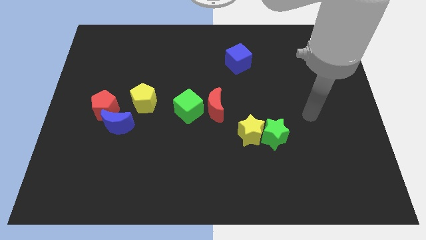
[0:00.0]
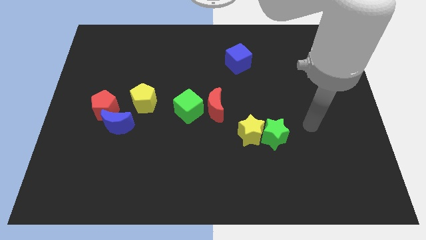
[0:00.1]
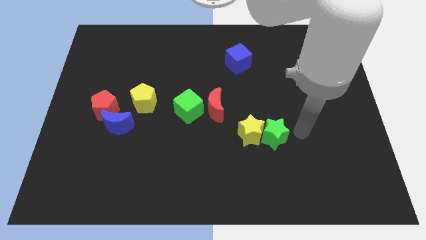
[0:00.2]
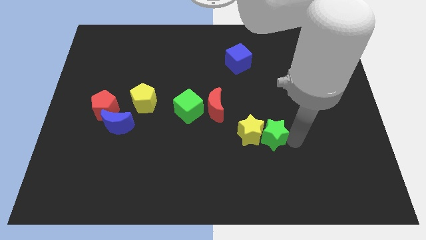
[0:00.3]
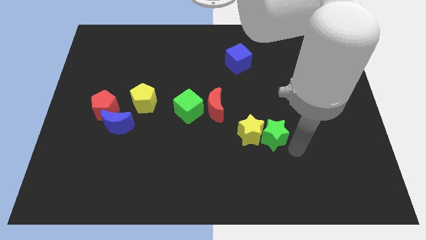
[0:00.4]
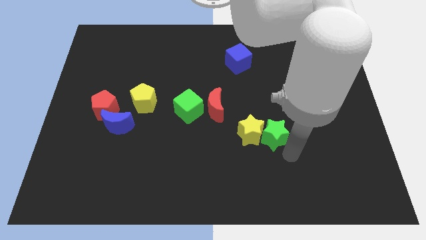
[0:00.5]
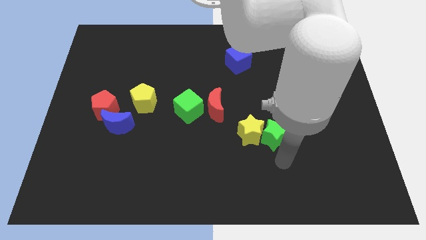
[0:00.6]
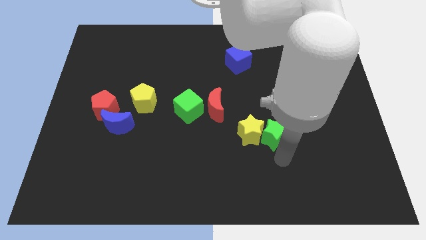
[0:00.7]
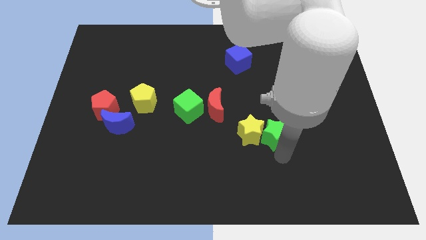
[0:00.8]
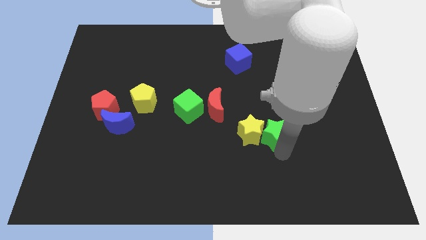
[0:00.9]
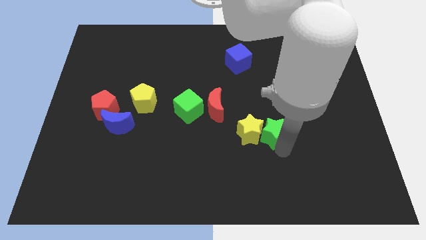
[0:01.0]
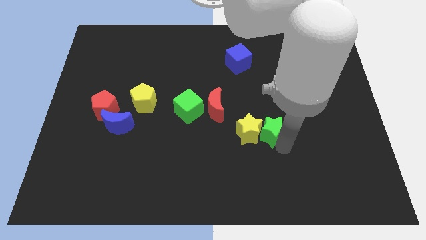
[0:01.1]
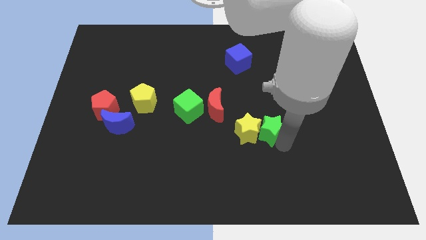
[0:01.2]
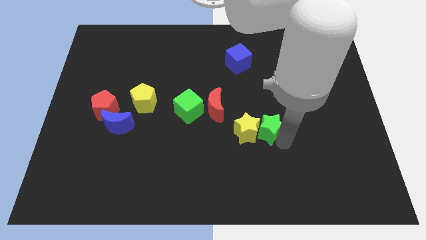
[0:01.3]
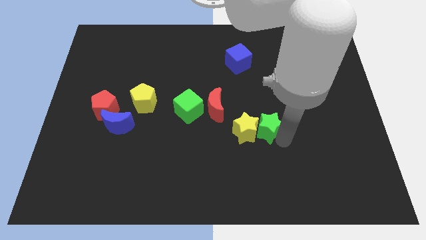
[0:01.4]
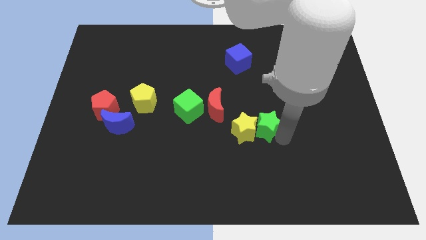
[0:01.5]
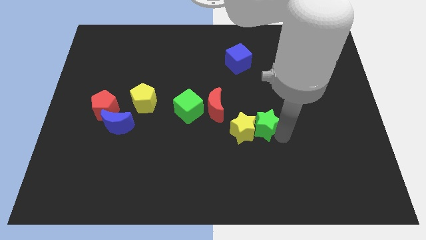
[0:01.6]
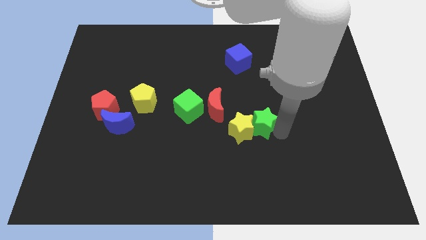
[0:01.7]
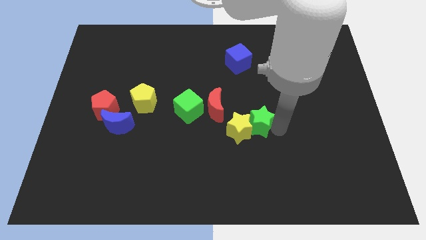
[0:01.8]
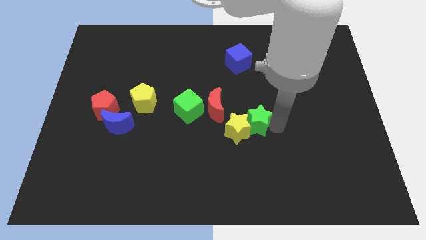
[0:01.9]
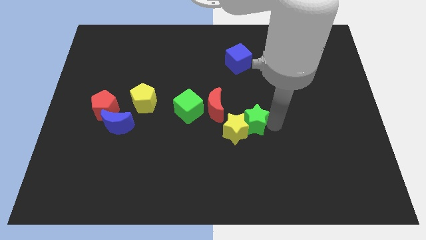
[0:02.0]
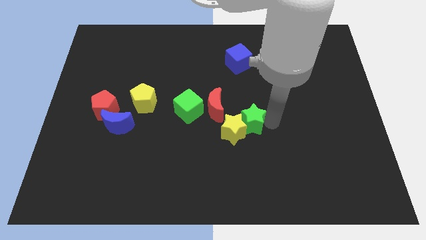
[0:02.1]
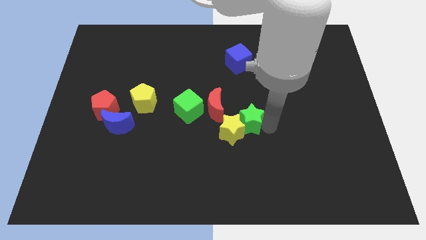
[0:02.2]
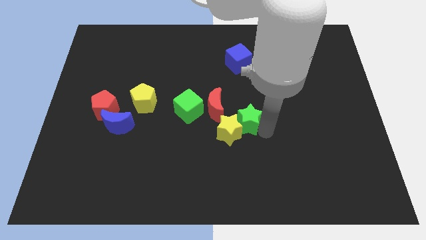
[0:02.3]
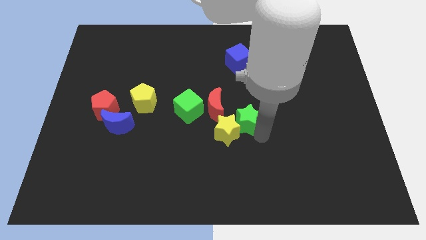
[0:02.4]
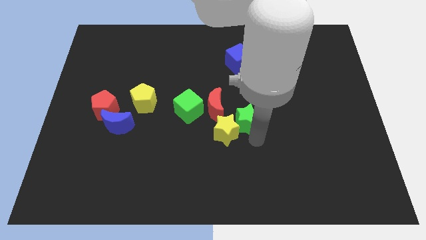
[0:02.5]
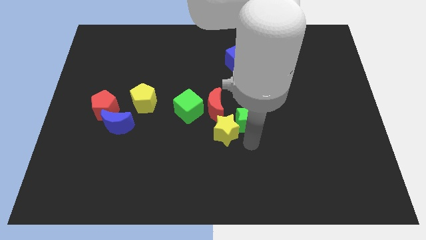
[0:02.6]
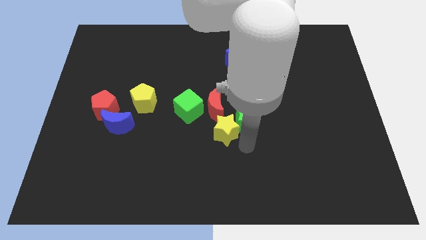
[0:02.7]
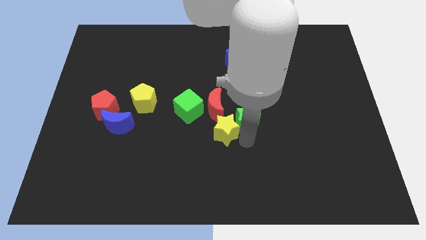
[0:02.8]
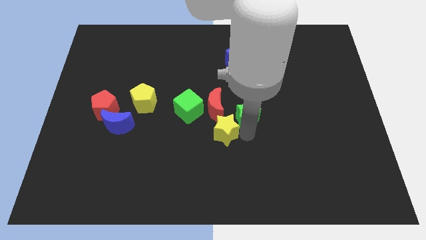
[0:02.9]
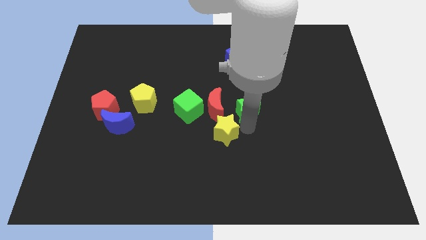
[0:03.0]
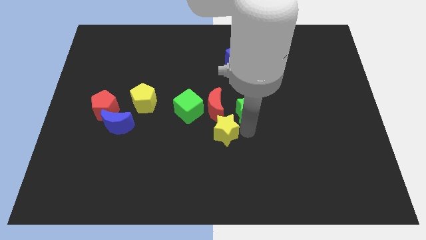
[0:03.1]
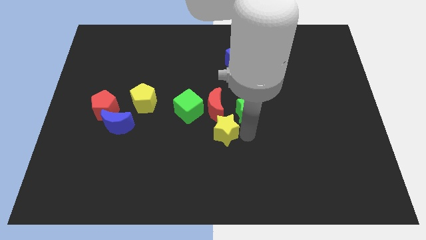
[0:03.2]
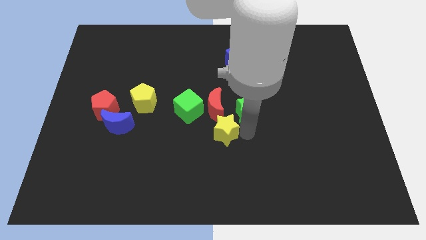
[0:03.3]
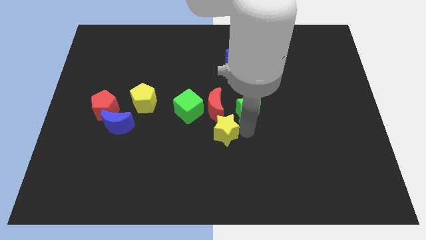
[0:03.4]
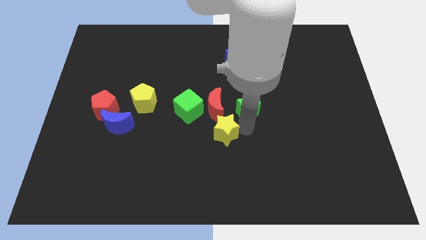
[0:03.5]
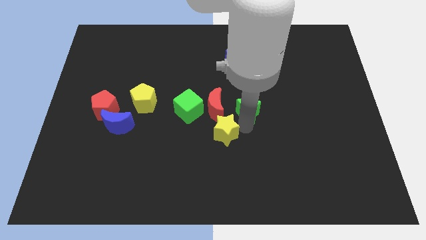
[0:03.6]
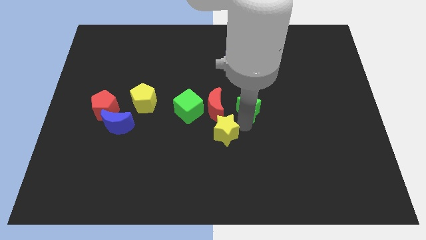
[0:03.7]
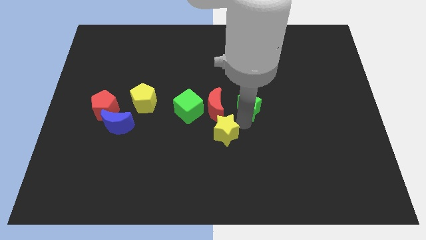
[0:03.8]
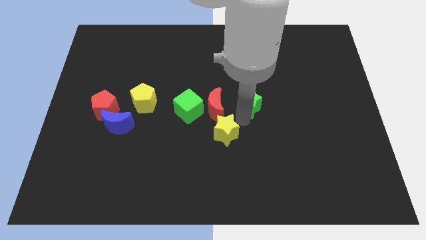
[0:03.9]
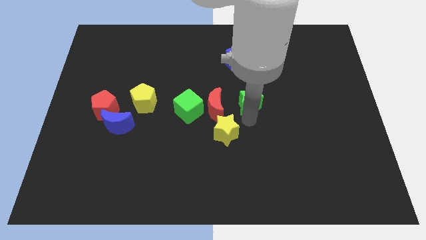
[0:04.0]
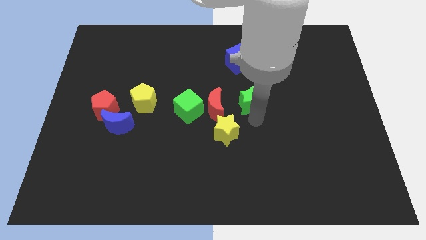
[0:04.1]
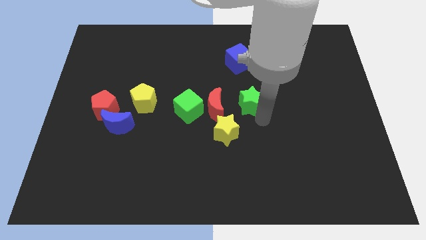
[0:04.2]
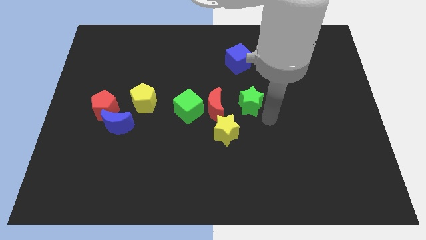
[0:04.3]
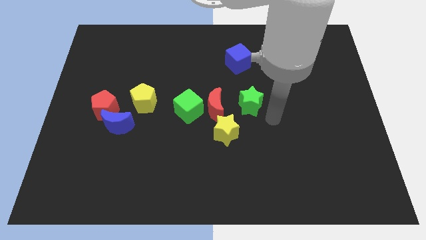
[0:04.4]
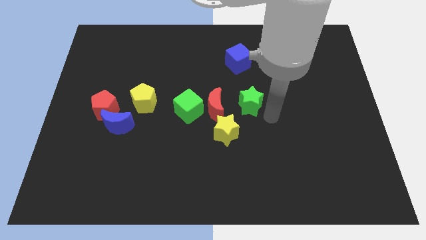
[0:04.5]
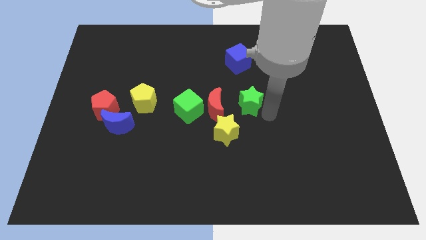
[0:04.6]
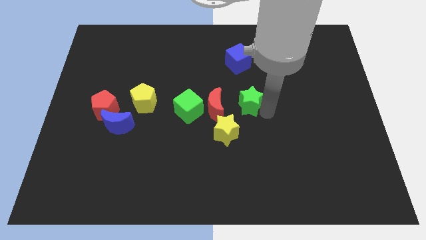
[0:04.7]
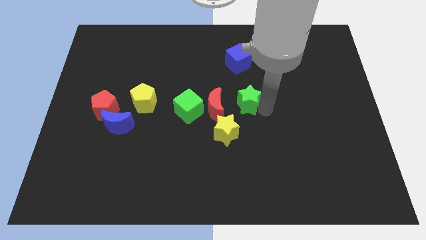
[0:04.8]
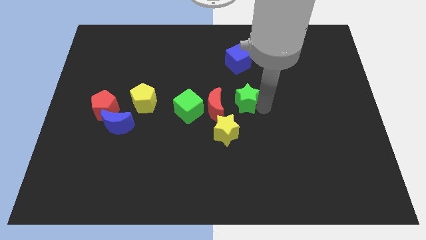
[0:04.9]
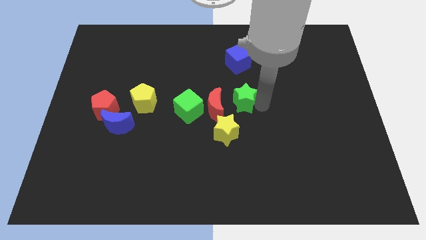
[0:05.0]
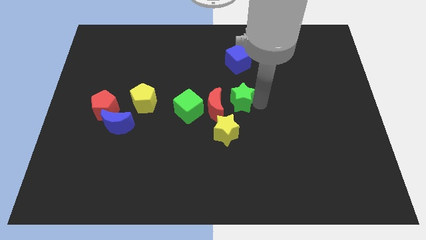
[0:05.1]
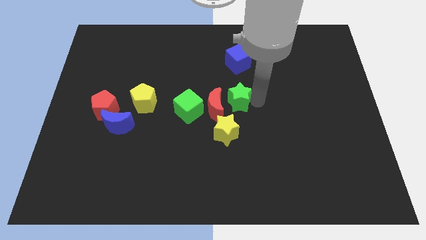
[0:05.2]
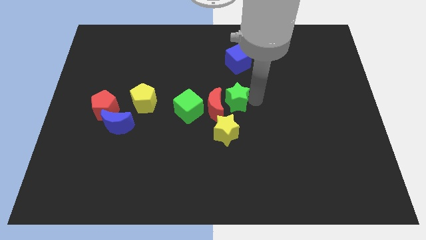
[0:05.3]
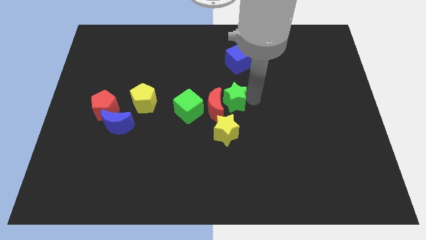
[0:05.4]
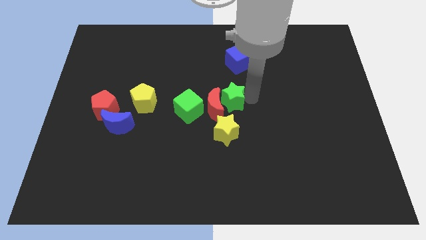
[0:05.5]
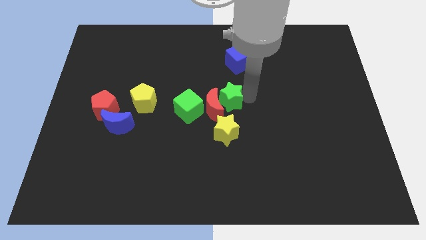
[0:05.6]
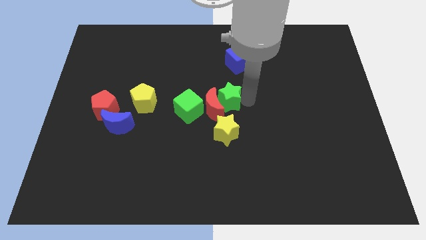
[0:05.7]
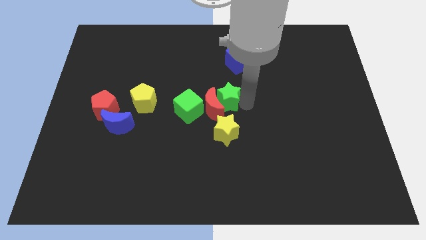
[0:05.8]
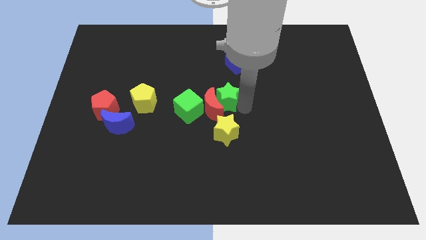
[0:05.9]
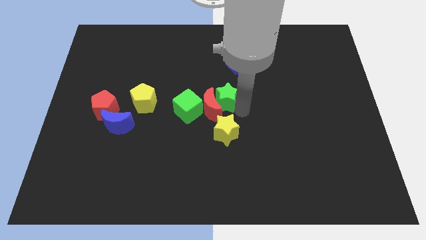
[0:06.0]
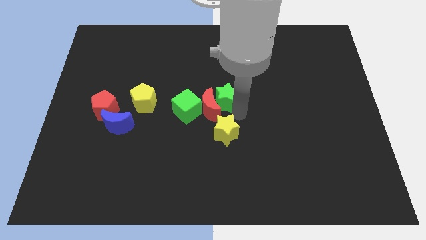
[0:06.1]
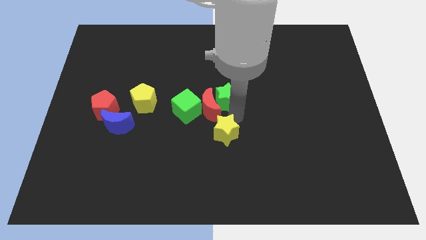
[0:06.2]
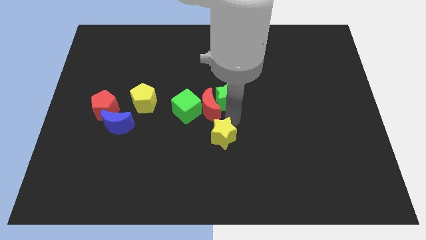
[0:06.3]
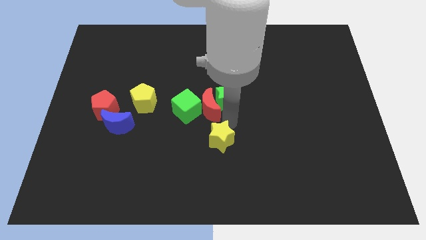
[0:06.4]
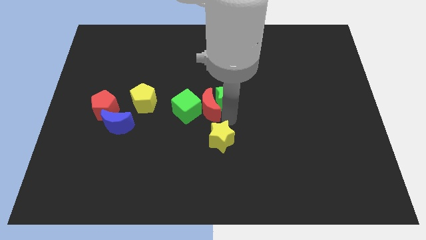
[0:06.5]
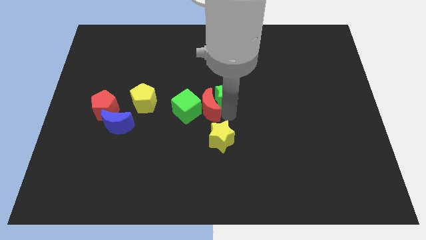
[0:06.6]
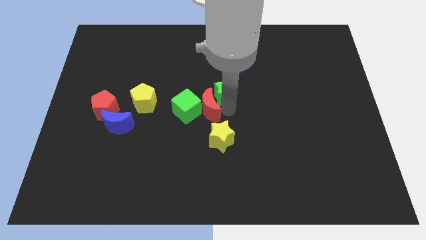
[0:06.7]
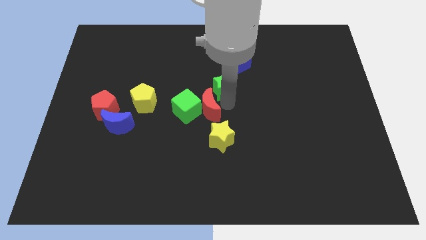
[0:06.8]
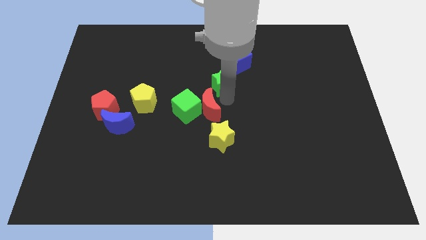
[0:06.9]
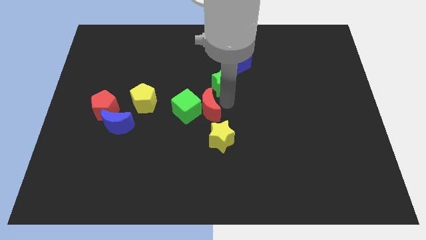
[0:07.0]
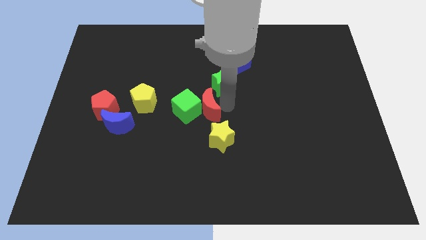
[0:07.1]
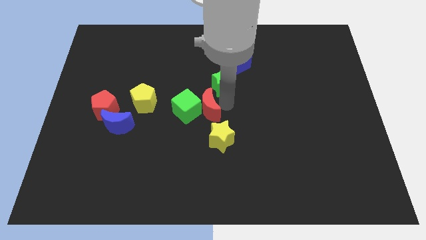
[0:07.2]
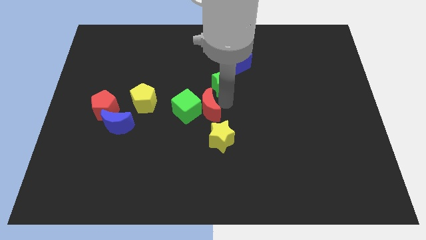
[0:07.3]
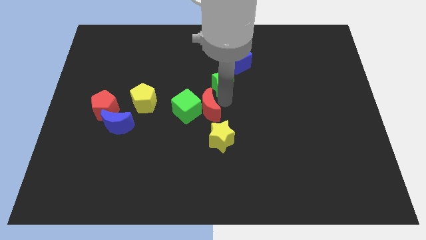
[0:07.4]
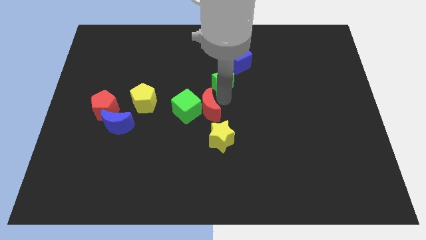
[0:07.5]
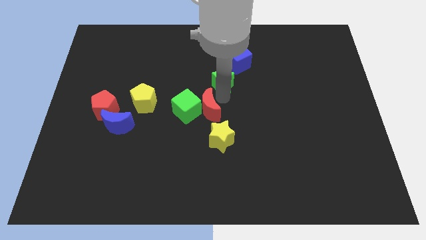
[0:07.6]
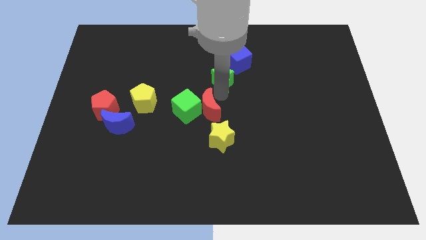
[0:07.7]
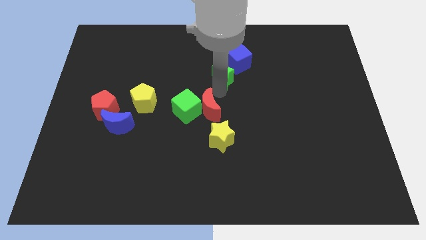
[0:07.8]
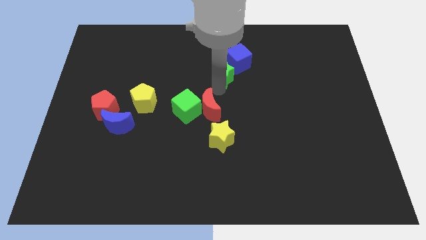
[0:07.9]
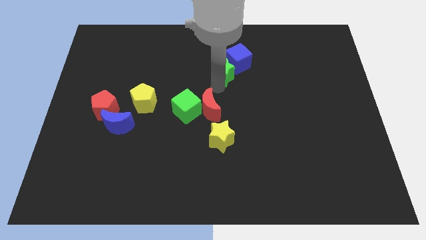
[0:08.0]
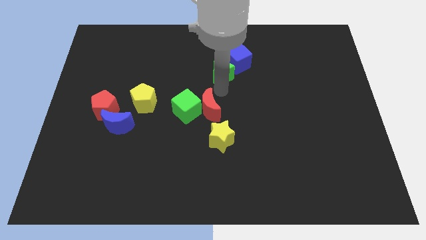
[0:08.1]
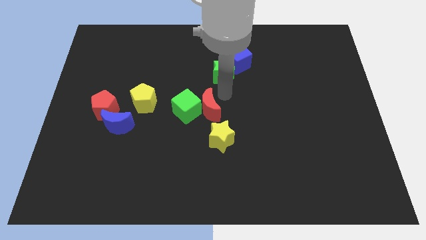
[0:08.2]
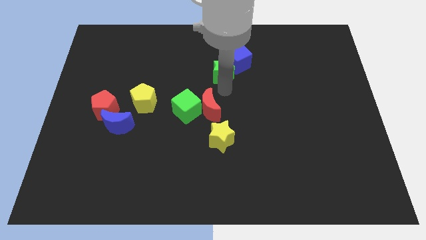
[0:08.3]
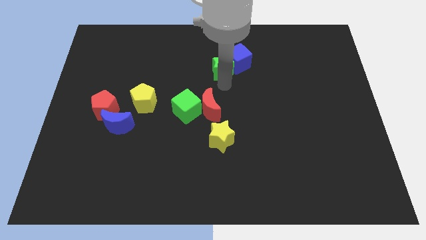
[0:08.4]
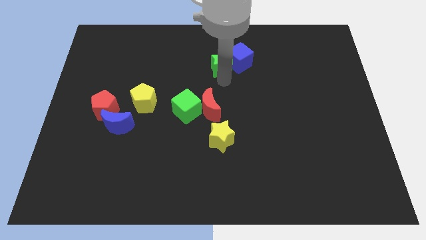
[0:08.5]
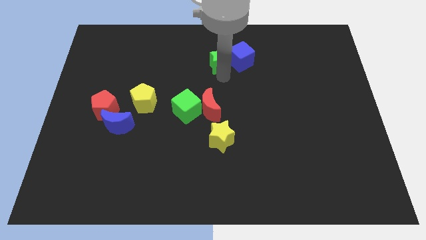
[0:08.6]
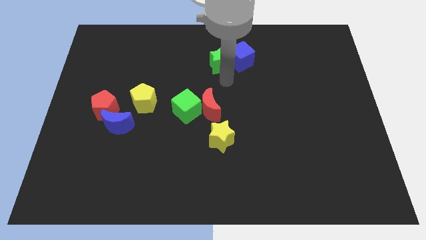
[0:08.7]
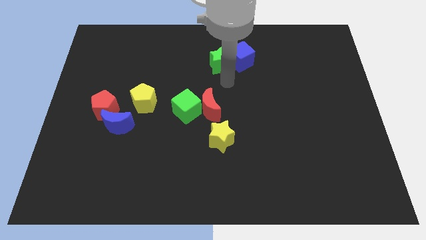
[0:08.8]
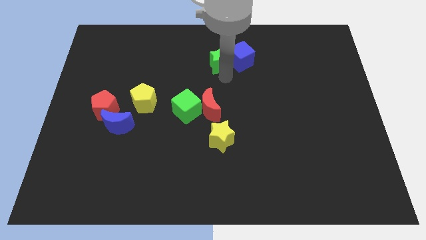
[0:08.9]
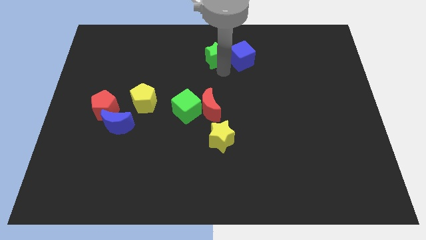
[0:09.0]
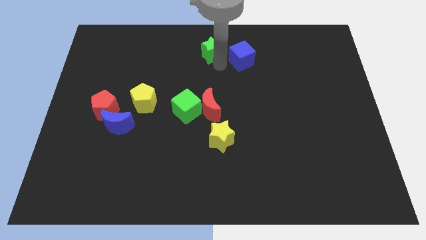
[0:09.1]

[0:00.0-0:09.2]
slide the green star to the top side
